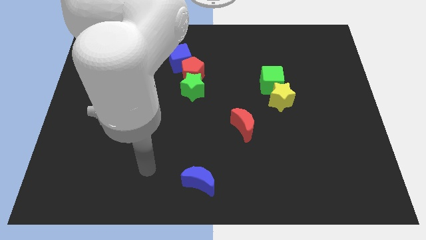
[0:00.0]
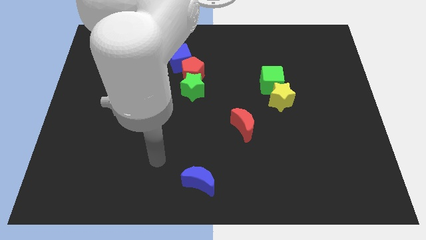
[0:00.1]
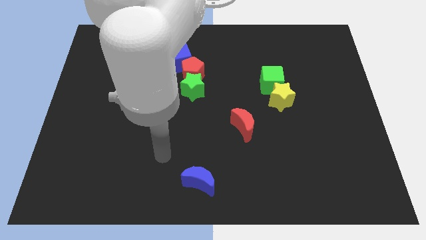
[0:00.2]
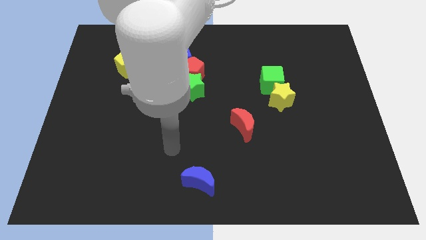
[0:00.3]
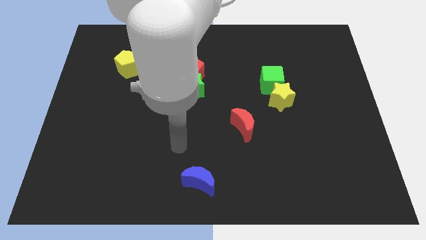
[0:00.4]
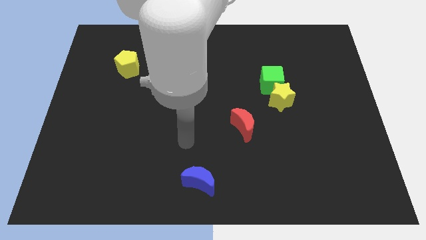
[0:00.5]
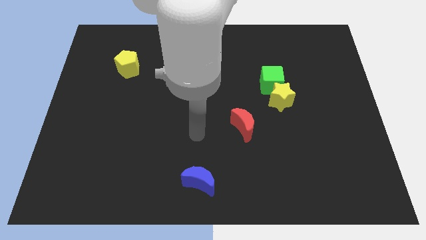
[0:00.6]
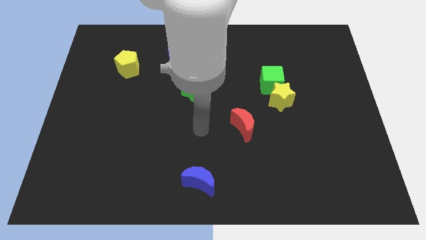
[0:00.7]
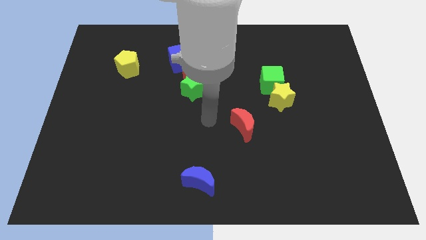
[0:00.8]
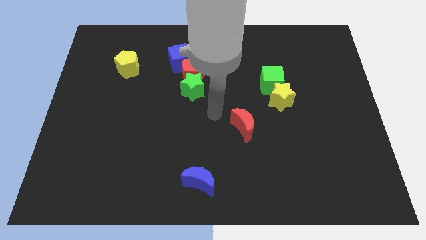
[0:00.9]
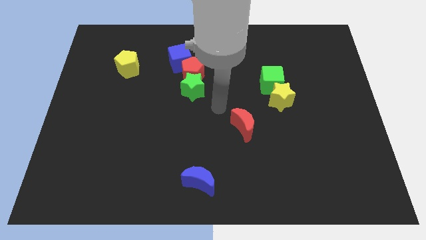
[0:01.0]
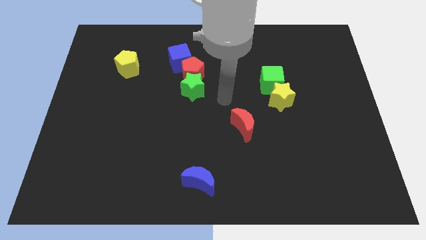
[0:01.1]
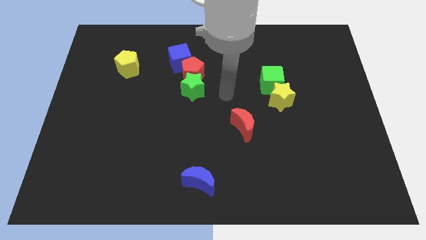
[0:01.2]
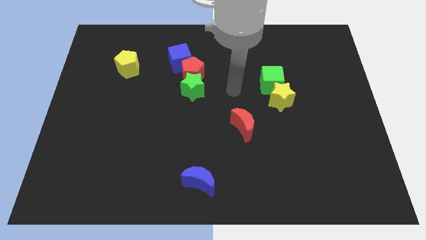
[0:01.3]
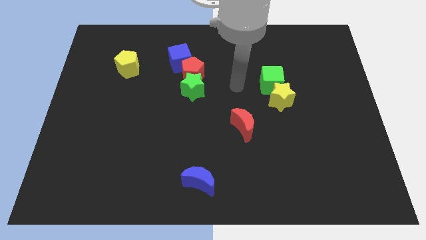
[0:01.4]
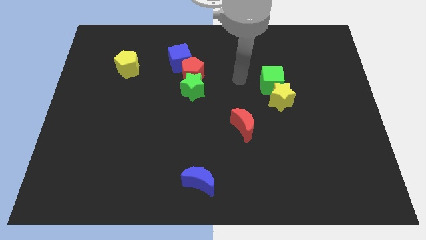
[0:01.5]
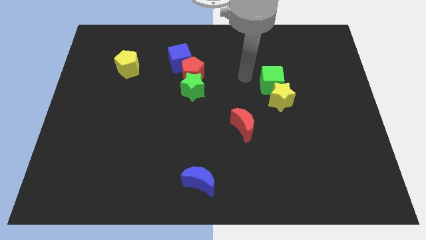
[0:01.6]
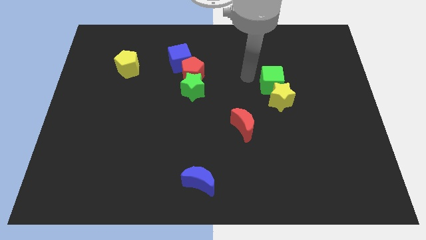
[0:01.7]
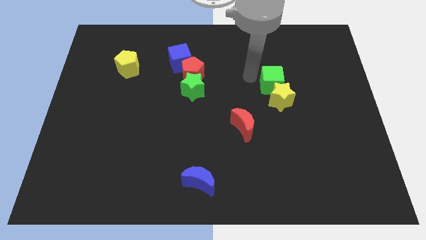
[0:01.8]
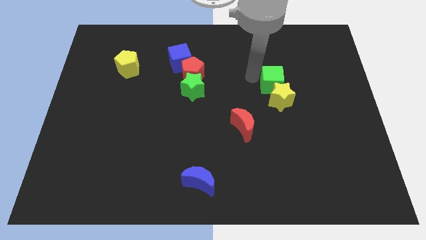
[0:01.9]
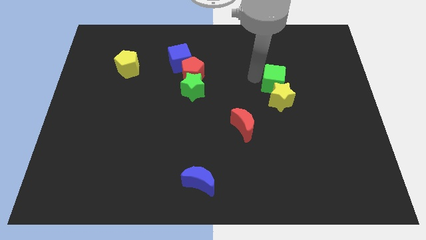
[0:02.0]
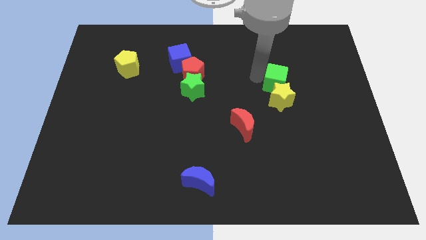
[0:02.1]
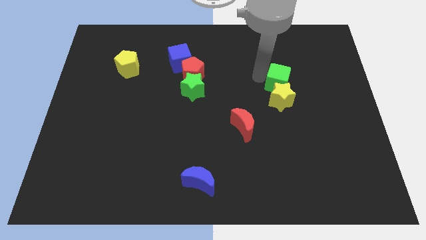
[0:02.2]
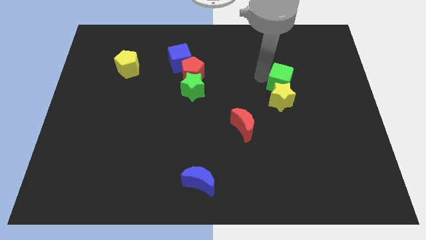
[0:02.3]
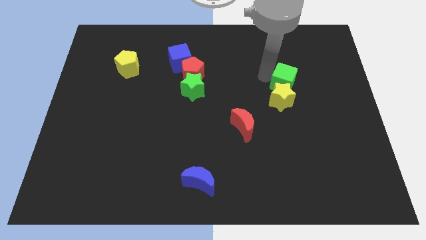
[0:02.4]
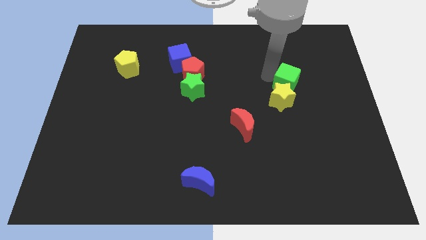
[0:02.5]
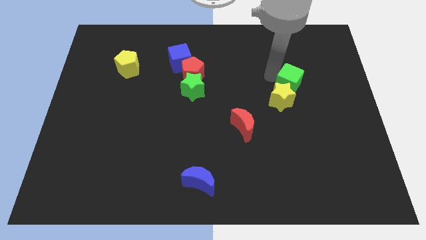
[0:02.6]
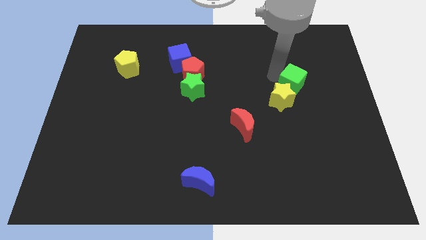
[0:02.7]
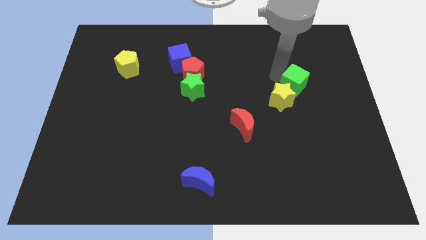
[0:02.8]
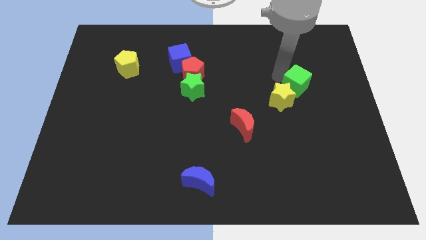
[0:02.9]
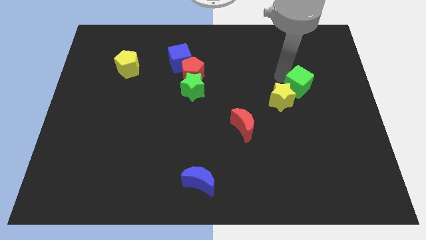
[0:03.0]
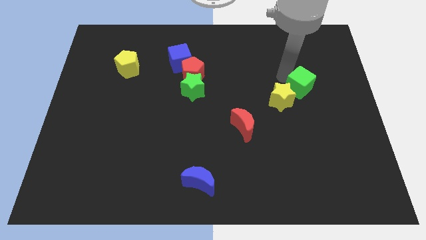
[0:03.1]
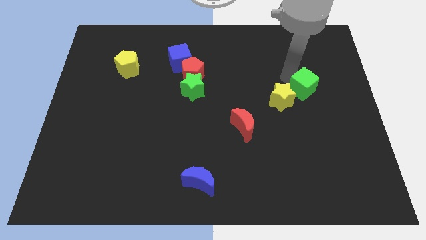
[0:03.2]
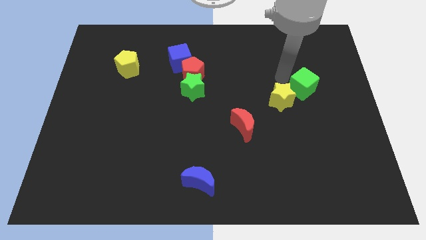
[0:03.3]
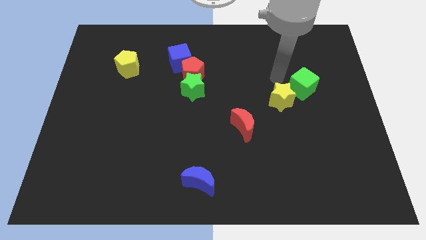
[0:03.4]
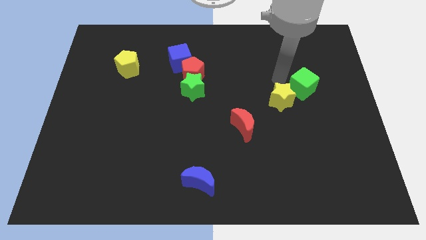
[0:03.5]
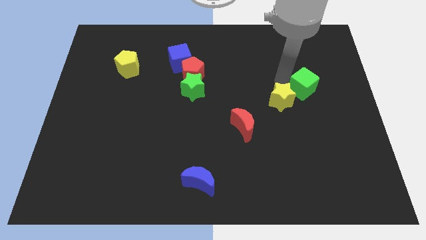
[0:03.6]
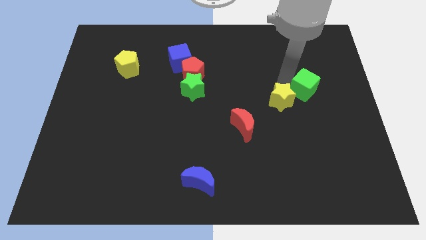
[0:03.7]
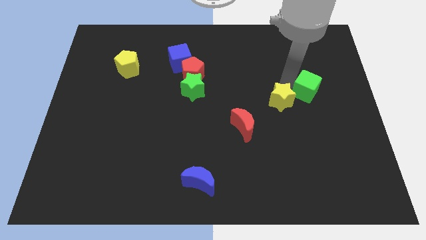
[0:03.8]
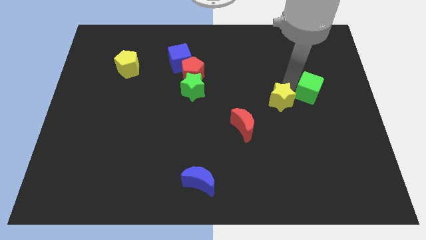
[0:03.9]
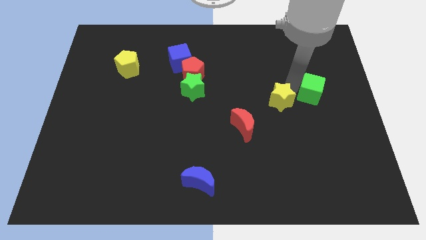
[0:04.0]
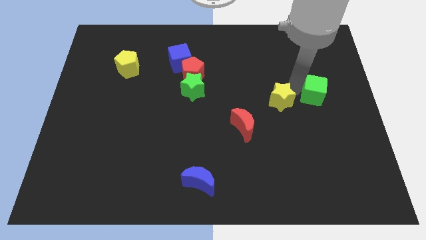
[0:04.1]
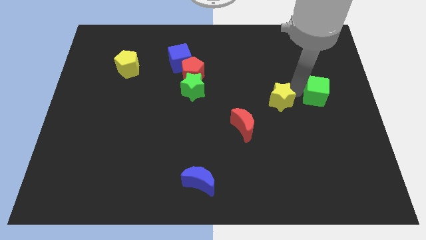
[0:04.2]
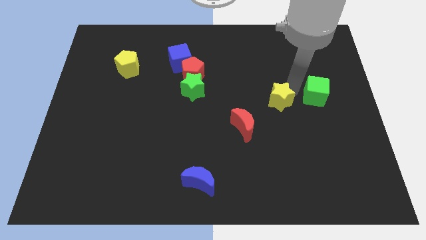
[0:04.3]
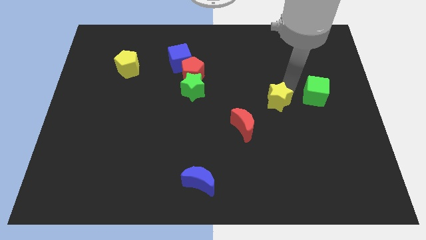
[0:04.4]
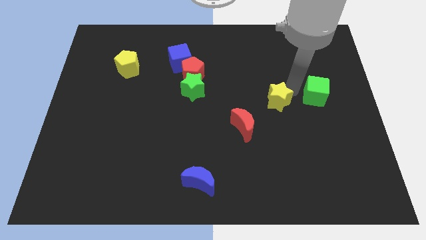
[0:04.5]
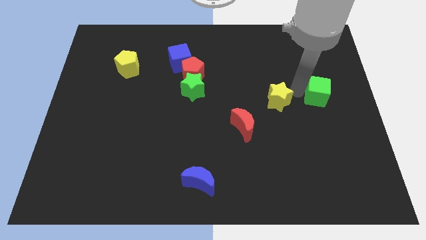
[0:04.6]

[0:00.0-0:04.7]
push the green cube to the right side

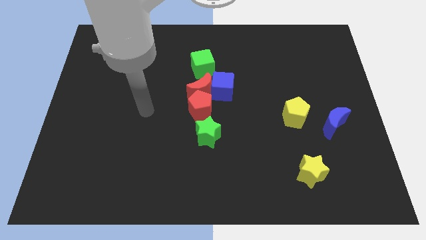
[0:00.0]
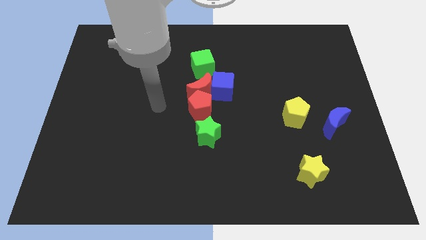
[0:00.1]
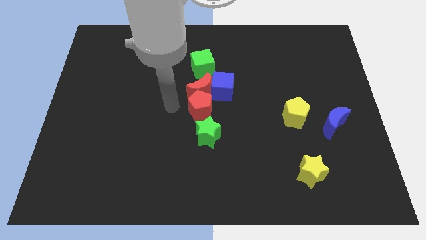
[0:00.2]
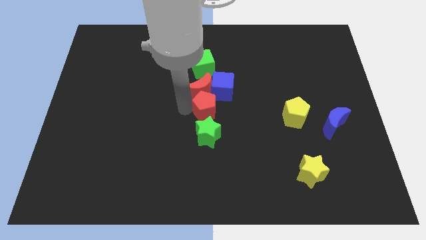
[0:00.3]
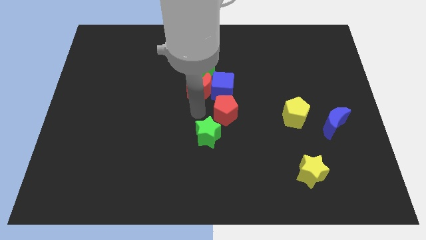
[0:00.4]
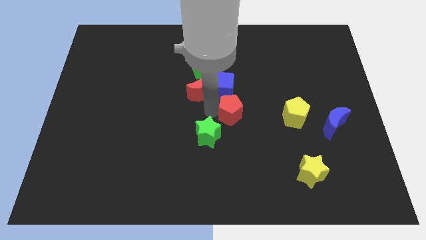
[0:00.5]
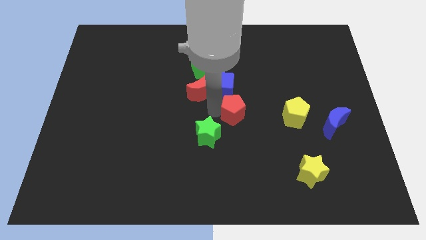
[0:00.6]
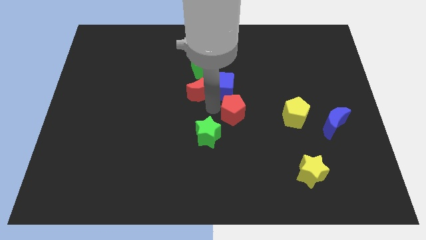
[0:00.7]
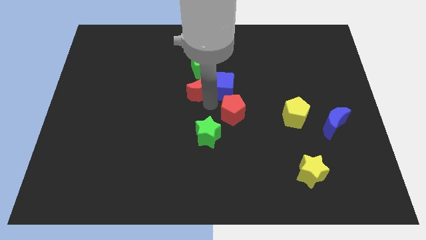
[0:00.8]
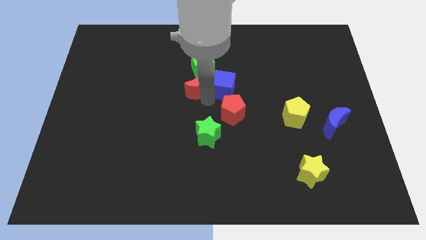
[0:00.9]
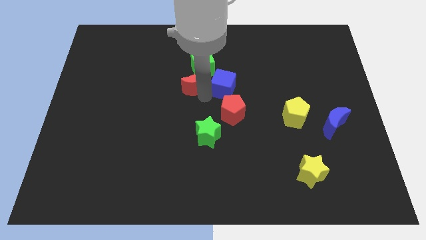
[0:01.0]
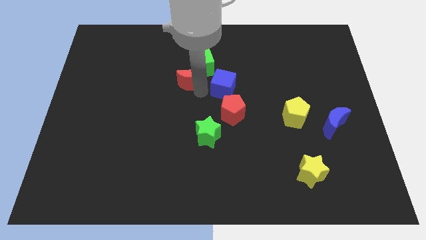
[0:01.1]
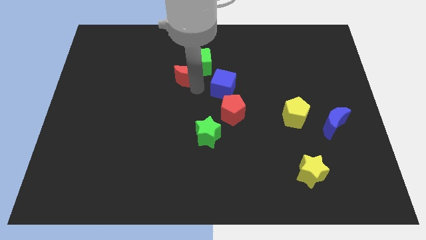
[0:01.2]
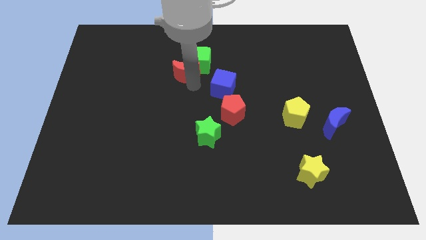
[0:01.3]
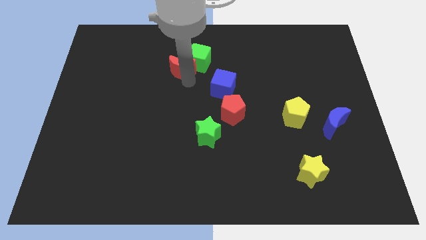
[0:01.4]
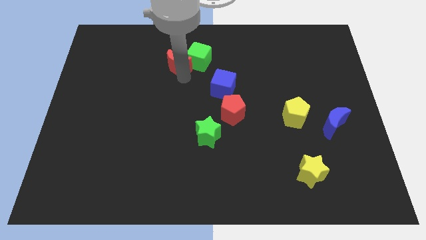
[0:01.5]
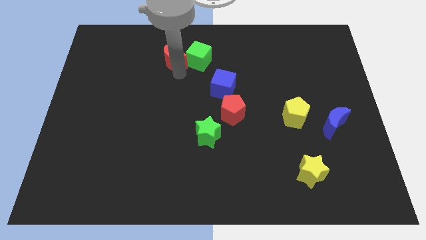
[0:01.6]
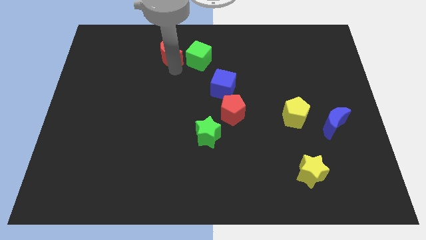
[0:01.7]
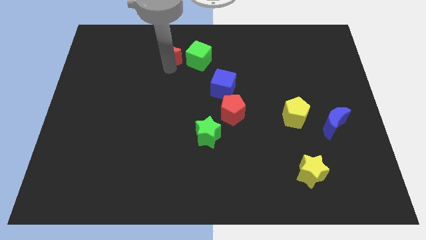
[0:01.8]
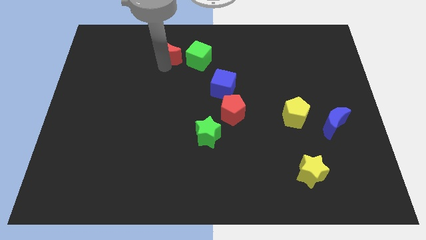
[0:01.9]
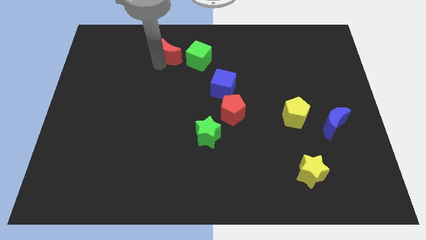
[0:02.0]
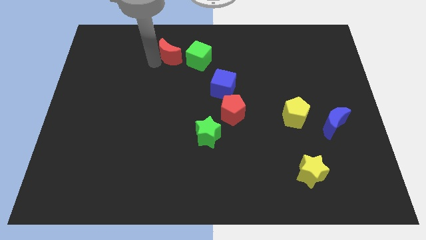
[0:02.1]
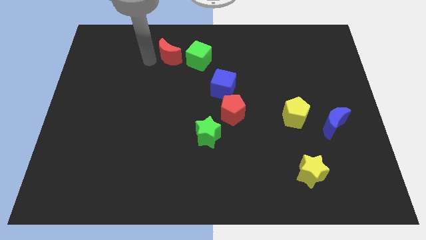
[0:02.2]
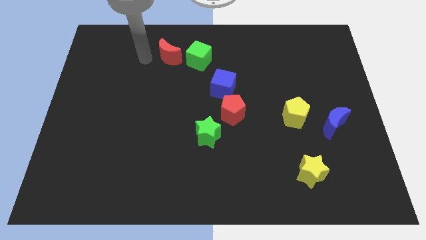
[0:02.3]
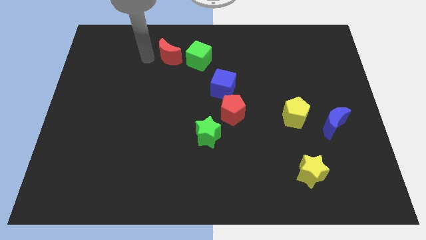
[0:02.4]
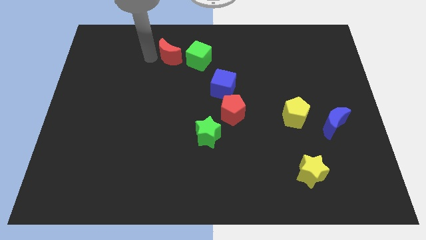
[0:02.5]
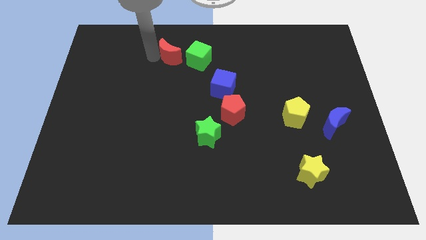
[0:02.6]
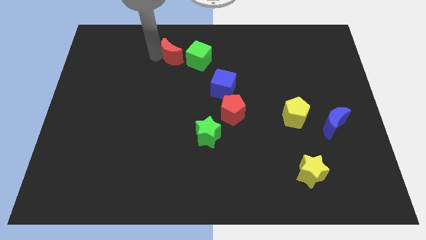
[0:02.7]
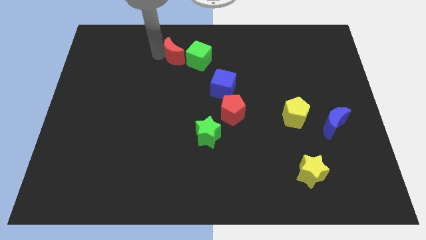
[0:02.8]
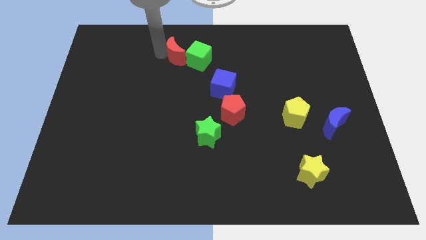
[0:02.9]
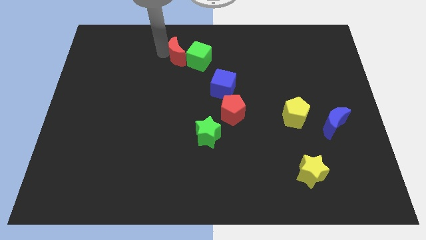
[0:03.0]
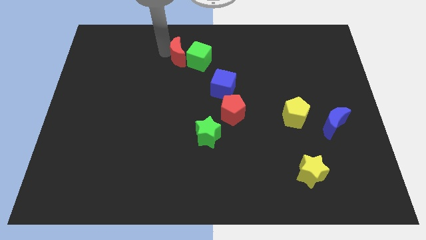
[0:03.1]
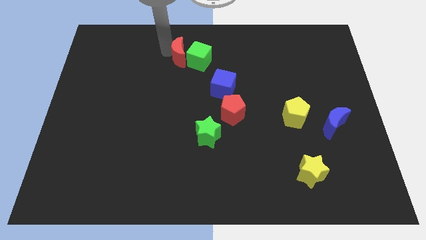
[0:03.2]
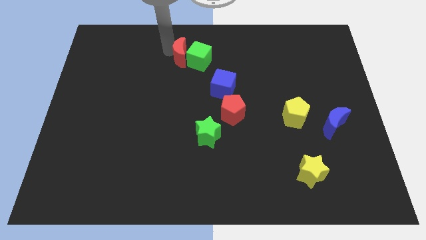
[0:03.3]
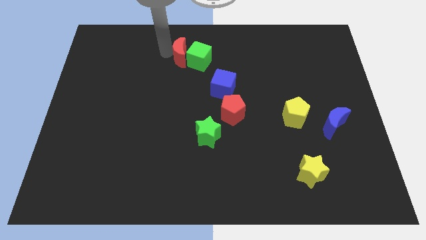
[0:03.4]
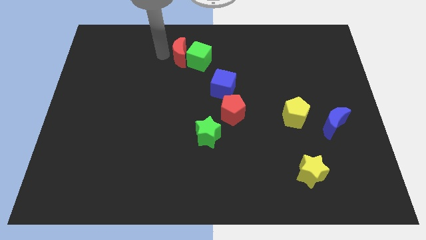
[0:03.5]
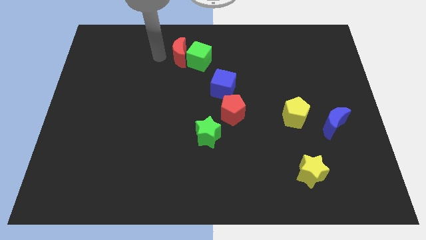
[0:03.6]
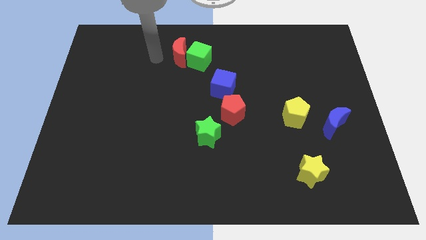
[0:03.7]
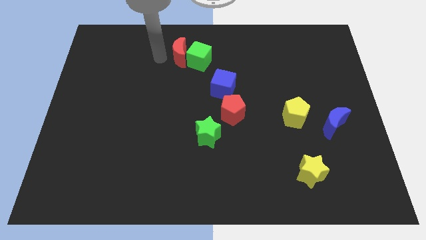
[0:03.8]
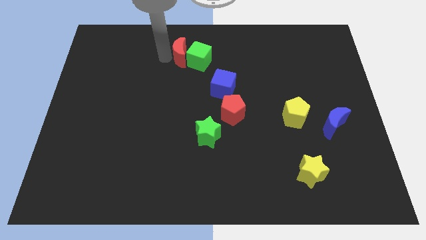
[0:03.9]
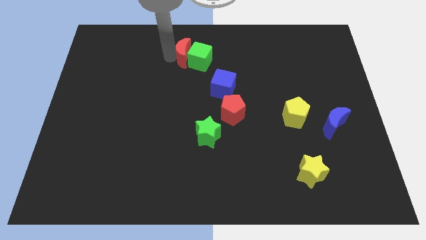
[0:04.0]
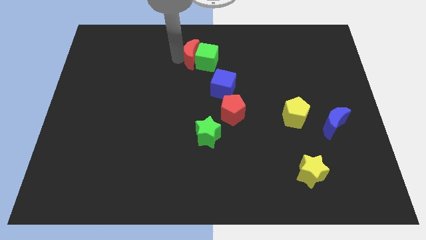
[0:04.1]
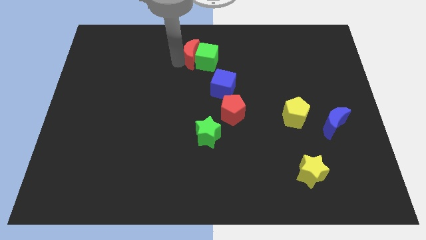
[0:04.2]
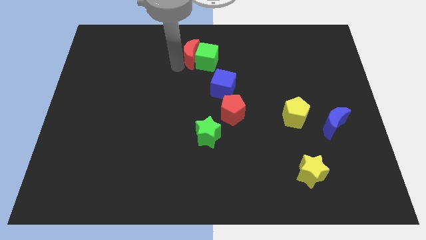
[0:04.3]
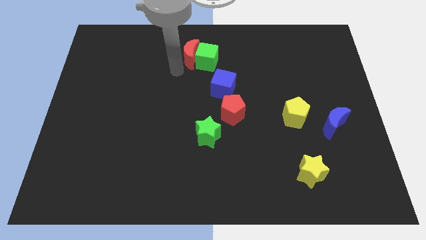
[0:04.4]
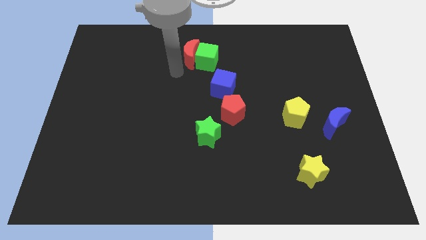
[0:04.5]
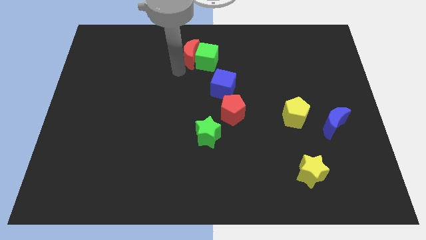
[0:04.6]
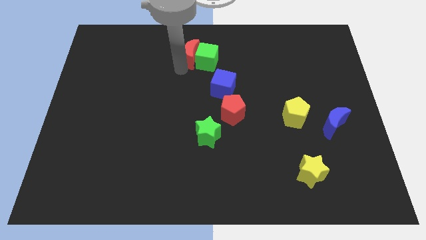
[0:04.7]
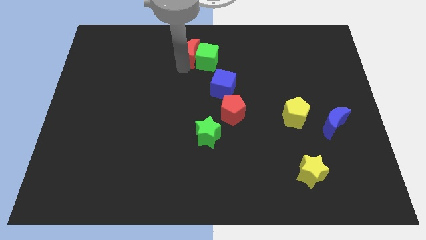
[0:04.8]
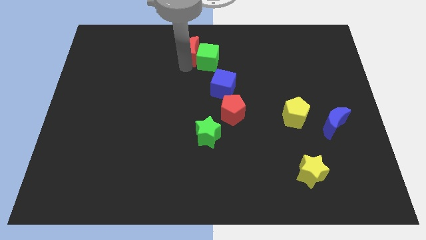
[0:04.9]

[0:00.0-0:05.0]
slide the red moon to the top
